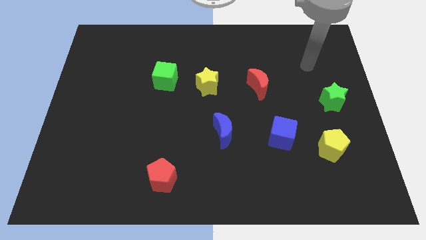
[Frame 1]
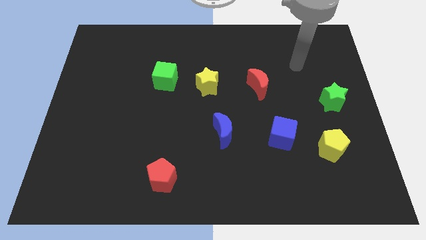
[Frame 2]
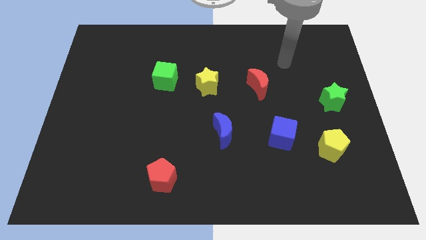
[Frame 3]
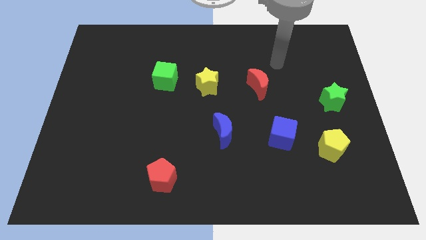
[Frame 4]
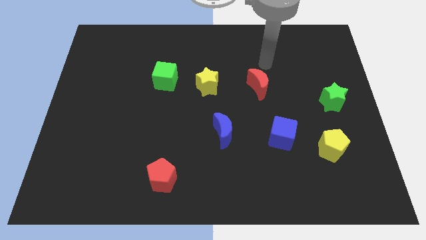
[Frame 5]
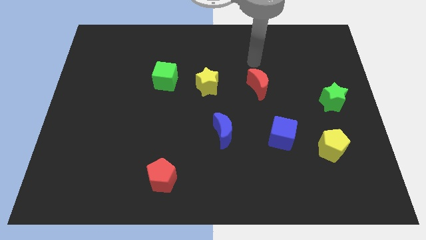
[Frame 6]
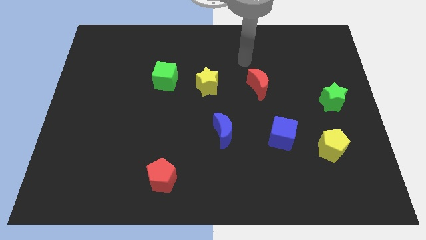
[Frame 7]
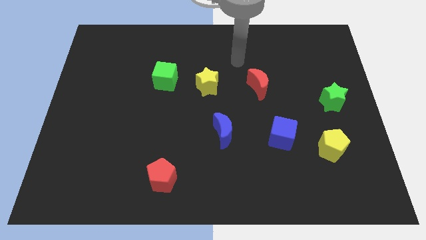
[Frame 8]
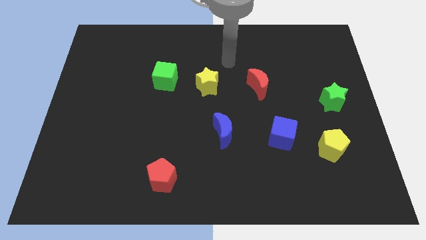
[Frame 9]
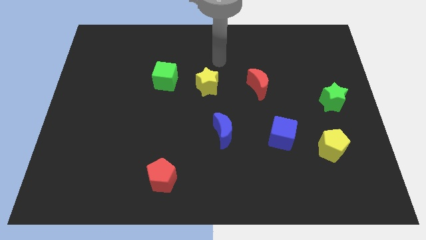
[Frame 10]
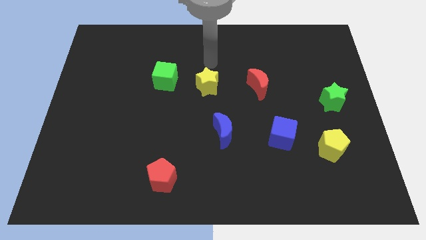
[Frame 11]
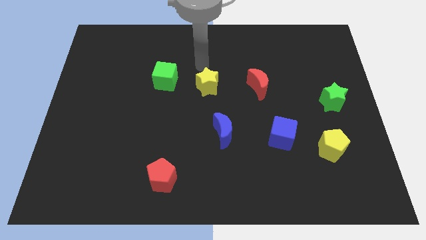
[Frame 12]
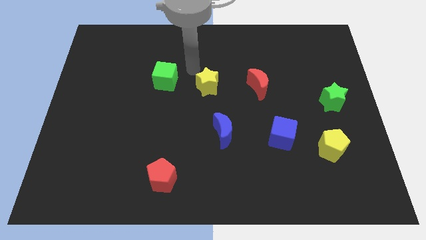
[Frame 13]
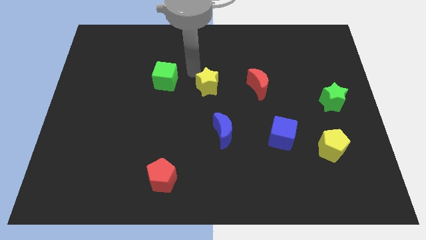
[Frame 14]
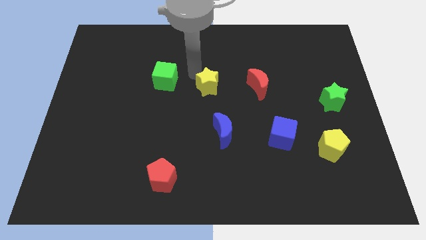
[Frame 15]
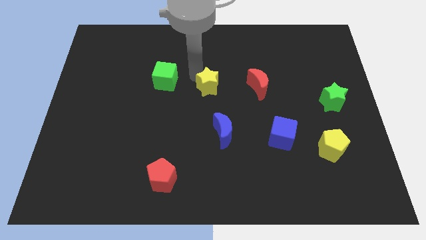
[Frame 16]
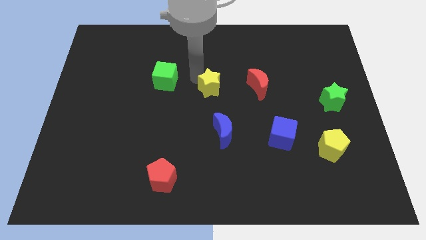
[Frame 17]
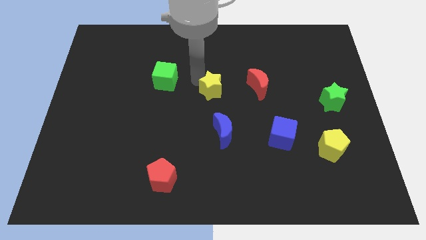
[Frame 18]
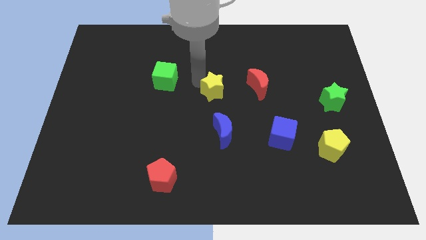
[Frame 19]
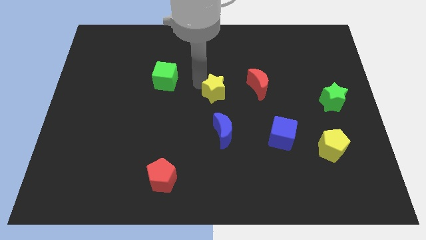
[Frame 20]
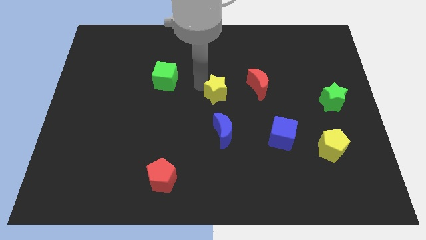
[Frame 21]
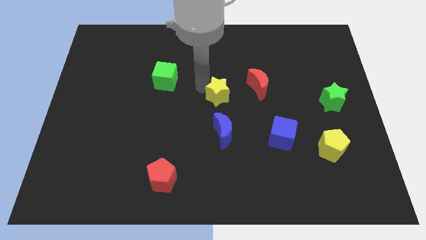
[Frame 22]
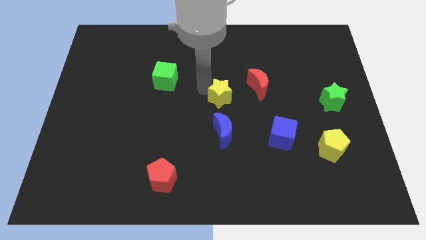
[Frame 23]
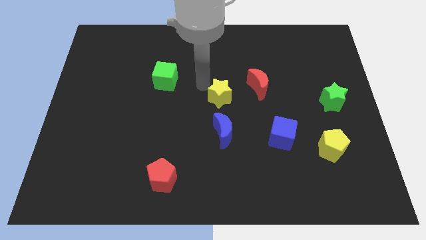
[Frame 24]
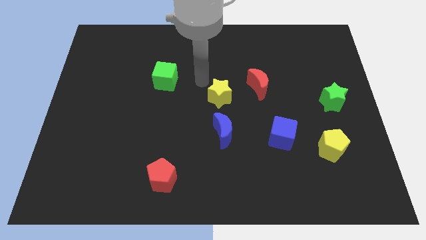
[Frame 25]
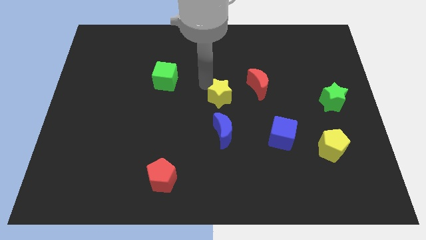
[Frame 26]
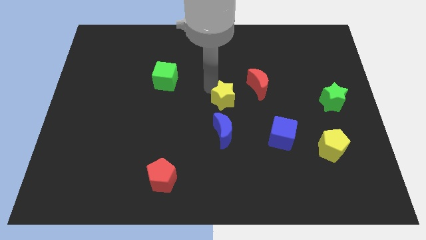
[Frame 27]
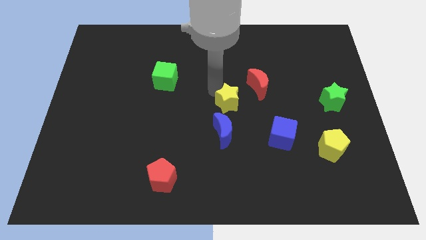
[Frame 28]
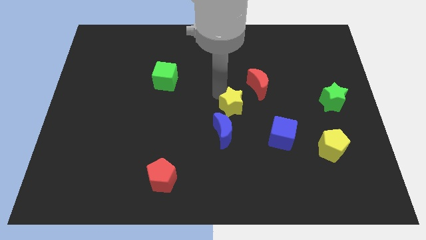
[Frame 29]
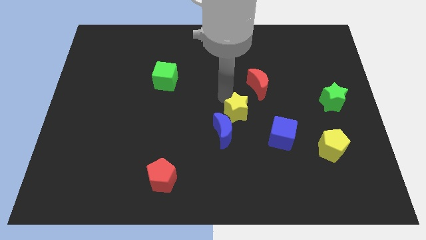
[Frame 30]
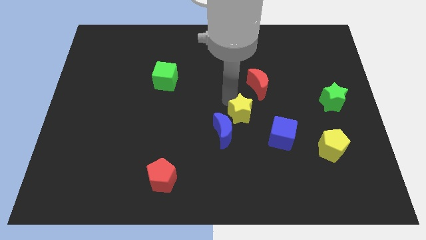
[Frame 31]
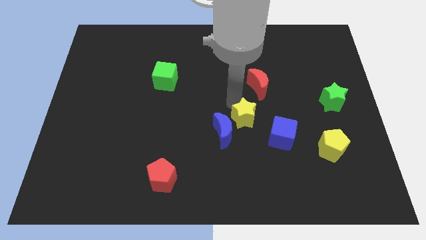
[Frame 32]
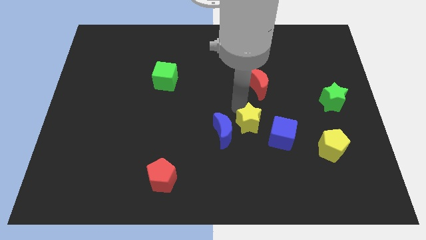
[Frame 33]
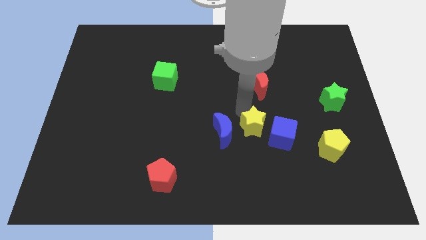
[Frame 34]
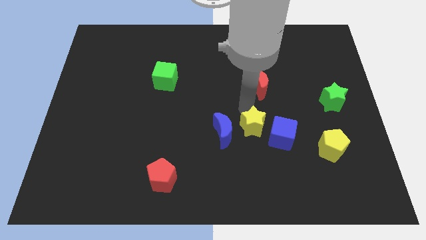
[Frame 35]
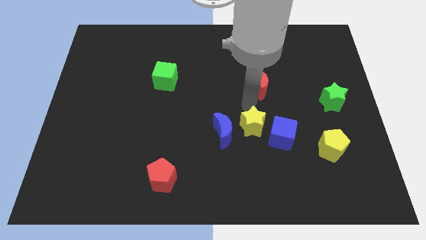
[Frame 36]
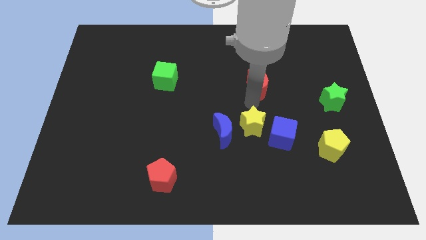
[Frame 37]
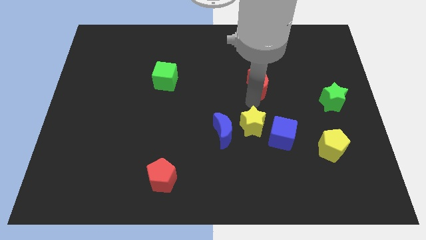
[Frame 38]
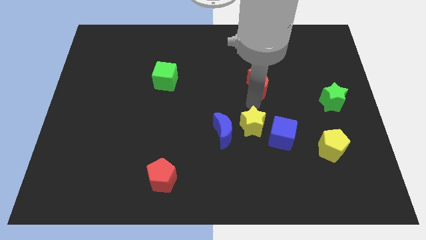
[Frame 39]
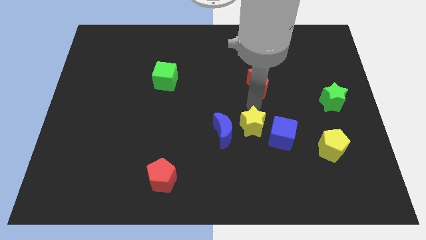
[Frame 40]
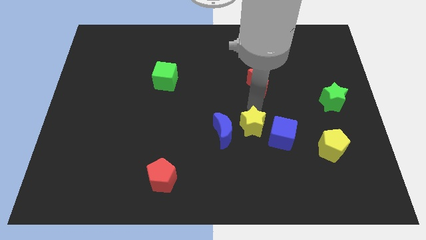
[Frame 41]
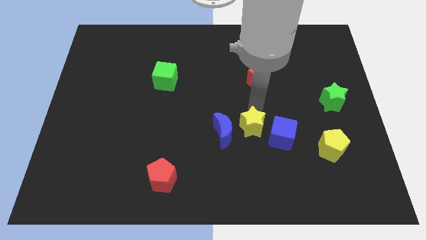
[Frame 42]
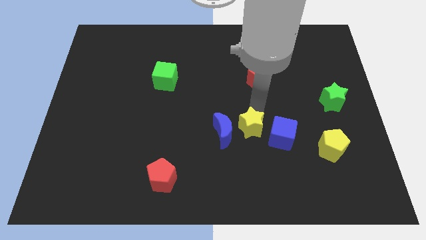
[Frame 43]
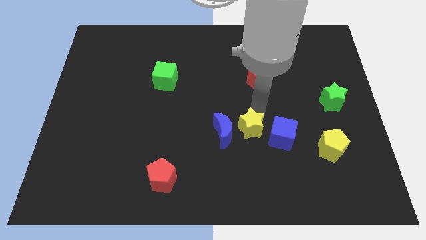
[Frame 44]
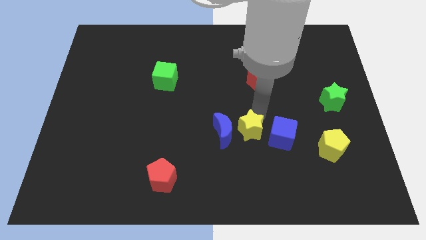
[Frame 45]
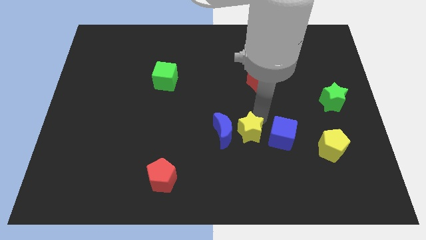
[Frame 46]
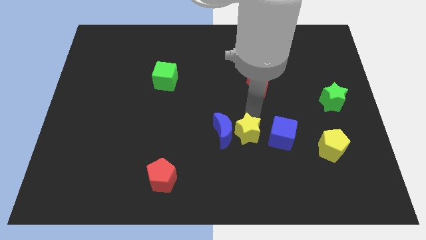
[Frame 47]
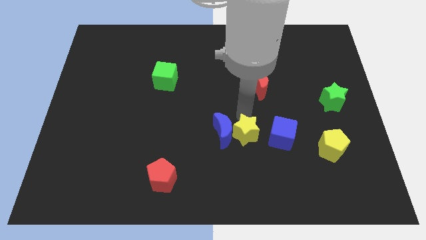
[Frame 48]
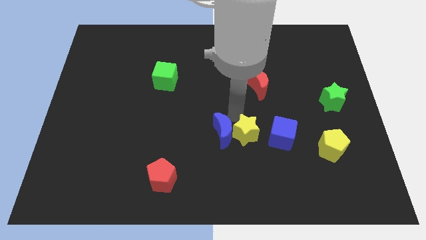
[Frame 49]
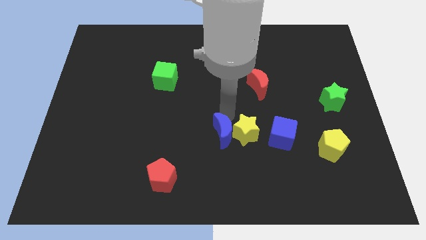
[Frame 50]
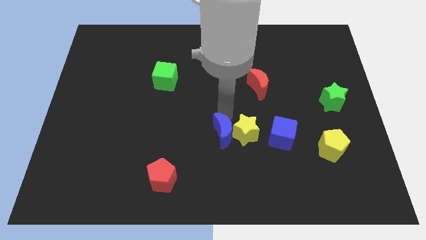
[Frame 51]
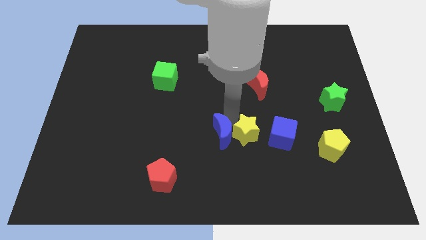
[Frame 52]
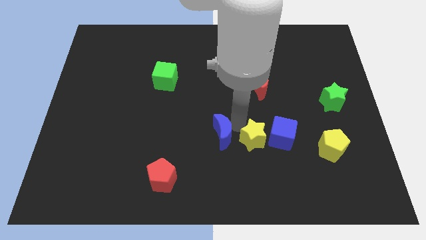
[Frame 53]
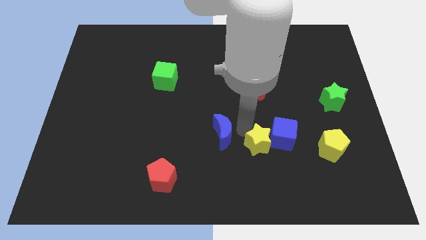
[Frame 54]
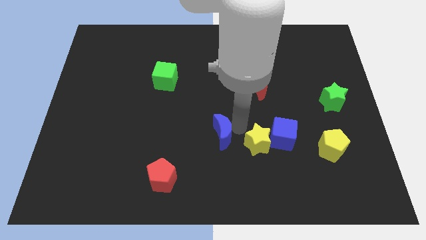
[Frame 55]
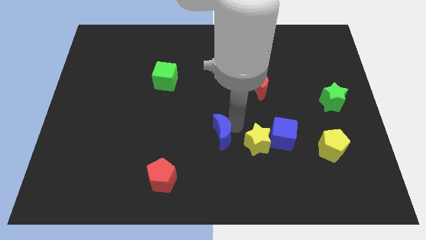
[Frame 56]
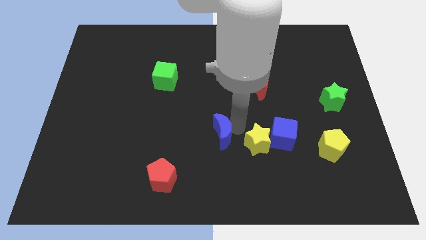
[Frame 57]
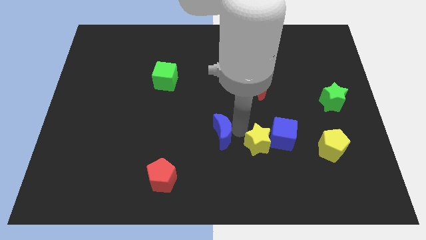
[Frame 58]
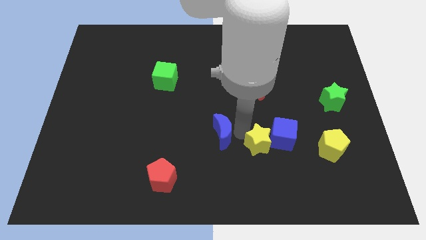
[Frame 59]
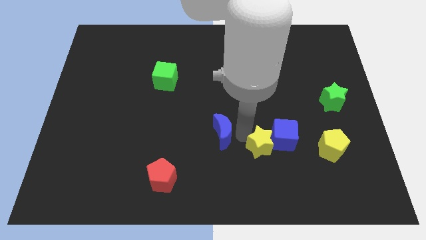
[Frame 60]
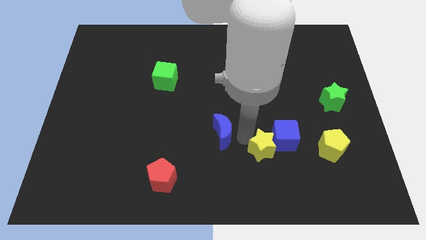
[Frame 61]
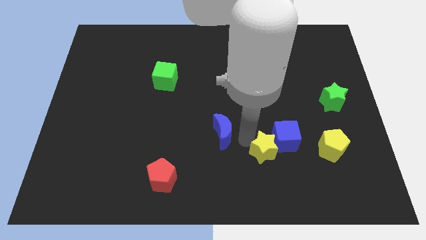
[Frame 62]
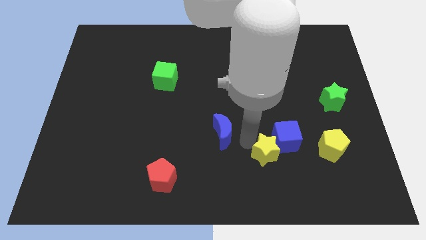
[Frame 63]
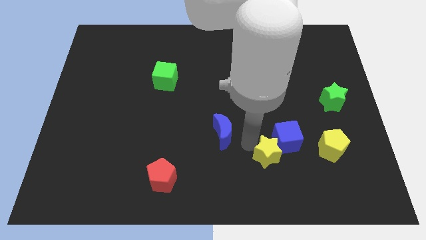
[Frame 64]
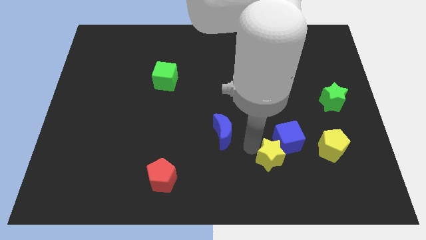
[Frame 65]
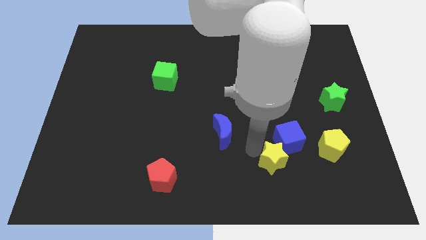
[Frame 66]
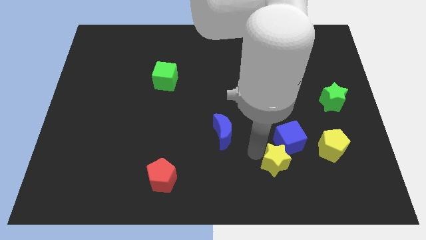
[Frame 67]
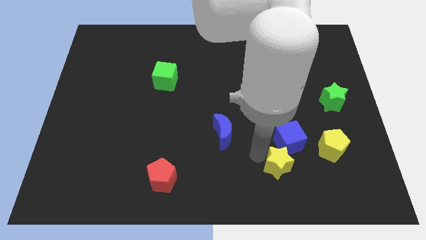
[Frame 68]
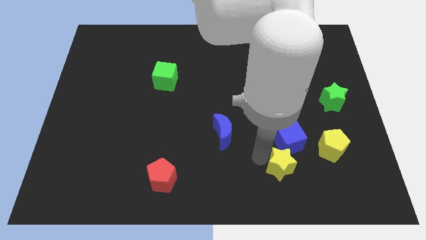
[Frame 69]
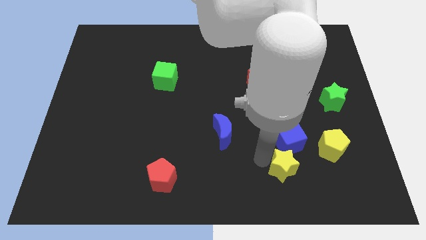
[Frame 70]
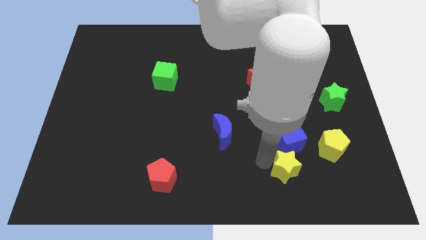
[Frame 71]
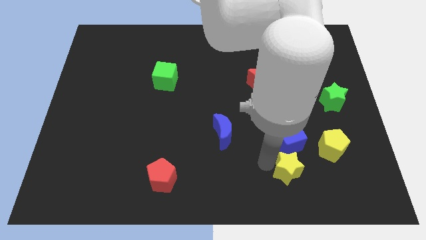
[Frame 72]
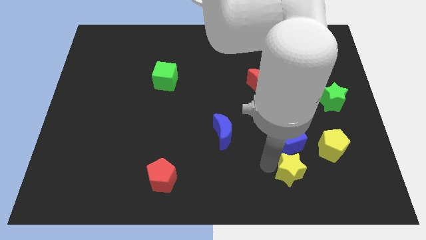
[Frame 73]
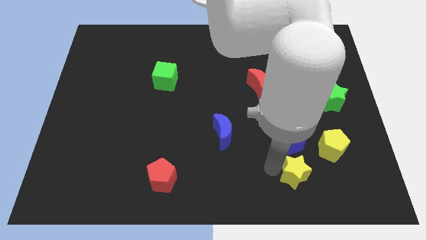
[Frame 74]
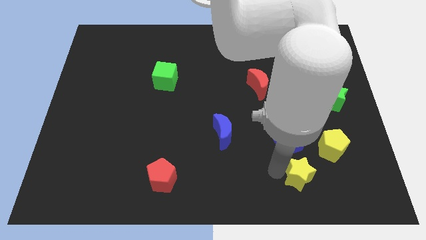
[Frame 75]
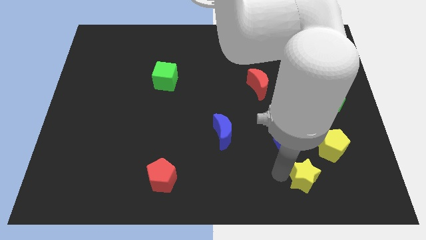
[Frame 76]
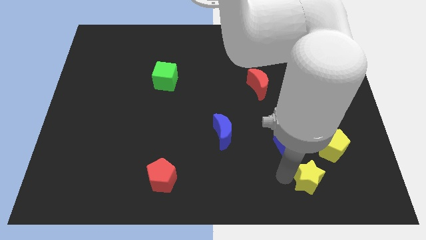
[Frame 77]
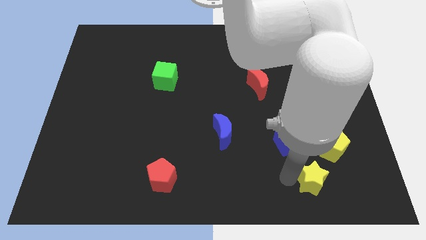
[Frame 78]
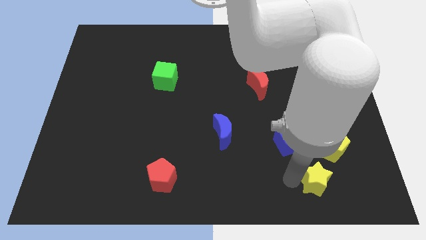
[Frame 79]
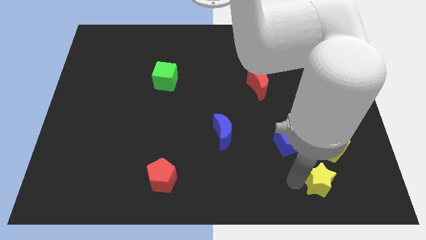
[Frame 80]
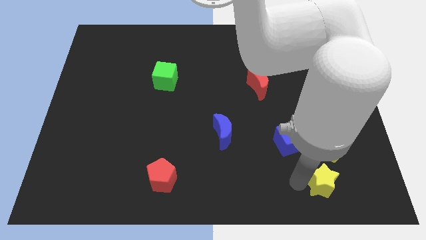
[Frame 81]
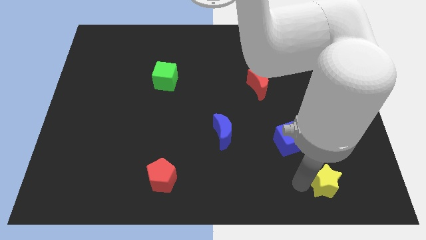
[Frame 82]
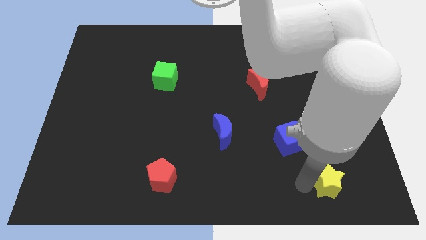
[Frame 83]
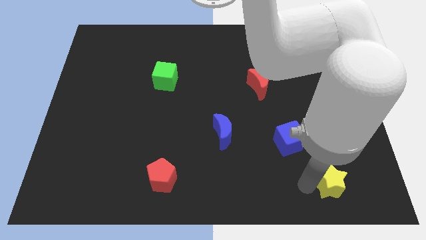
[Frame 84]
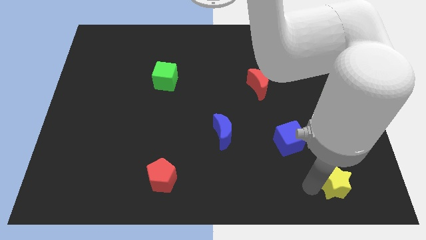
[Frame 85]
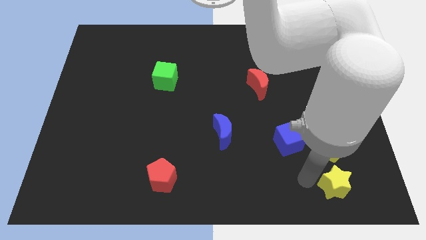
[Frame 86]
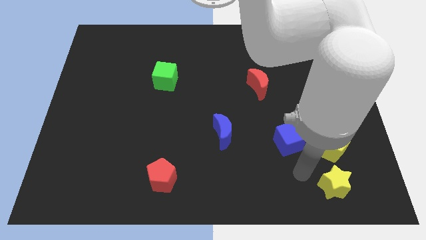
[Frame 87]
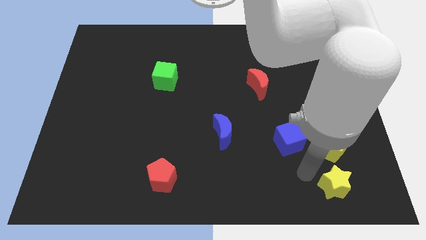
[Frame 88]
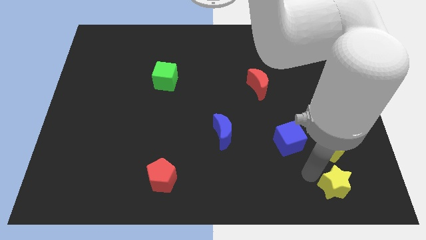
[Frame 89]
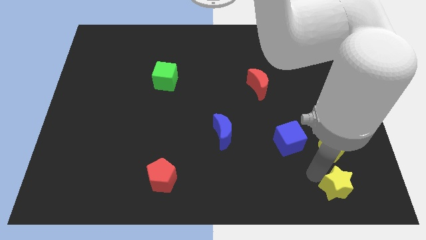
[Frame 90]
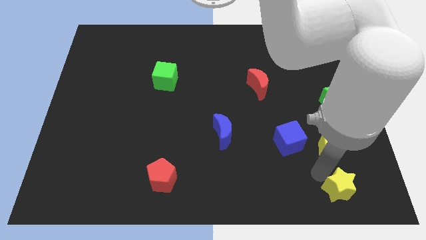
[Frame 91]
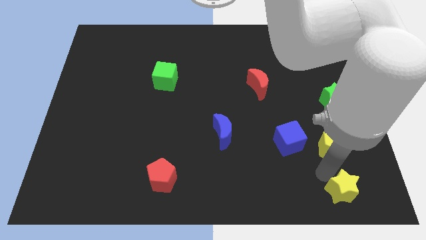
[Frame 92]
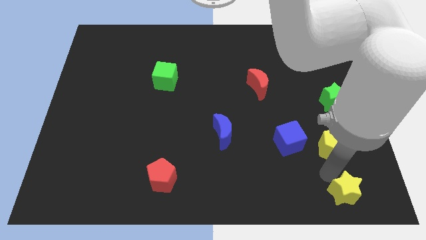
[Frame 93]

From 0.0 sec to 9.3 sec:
put the yellow star to the bottom right
